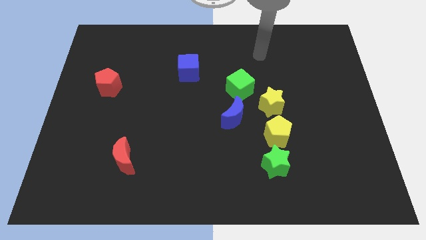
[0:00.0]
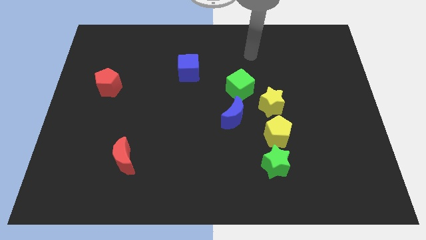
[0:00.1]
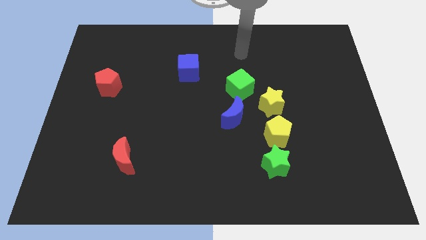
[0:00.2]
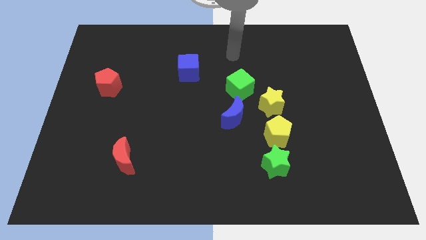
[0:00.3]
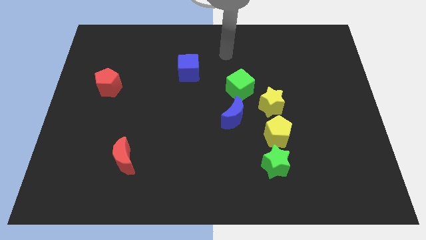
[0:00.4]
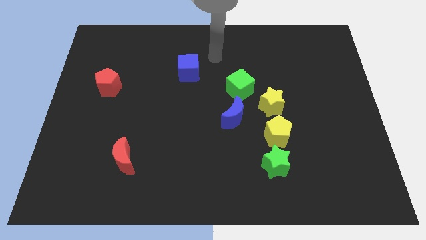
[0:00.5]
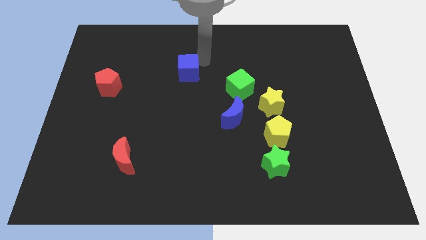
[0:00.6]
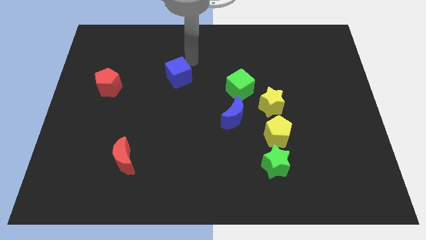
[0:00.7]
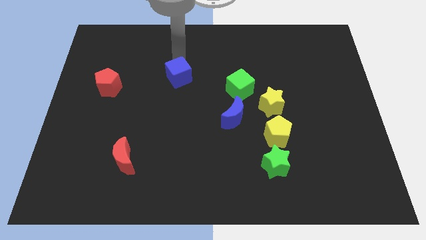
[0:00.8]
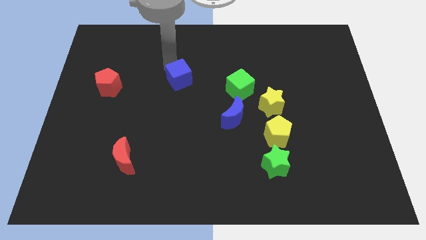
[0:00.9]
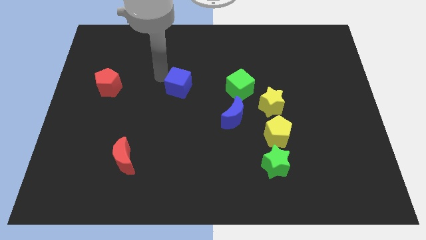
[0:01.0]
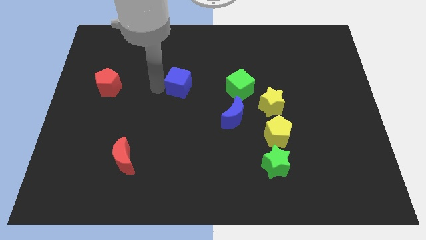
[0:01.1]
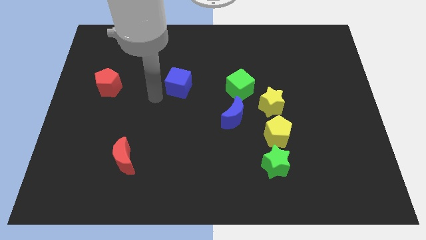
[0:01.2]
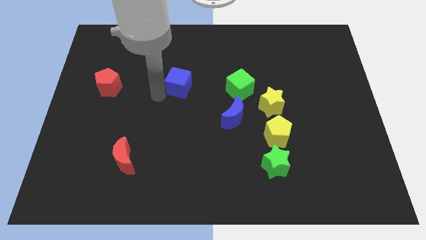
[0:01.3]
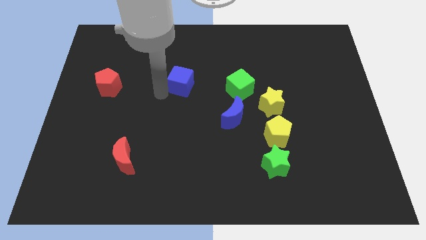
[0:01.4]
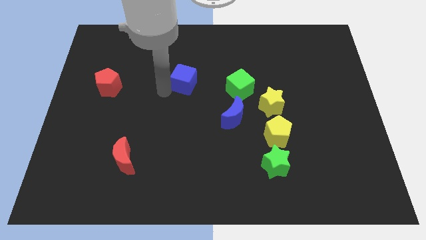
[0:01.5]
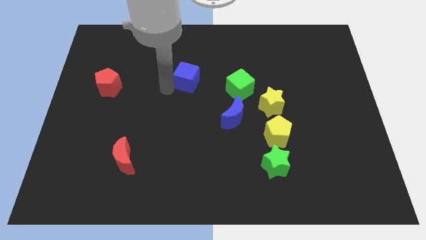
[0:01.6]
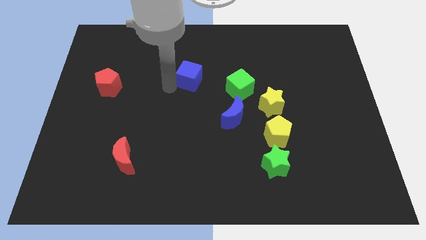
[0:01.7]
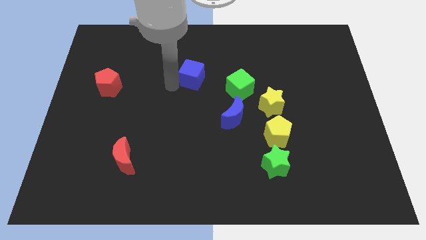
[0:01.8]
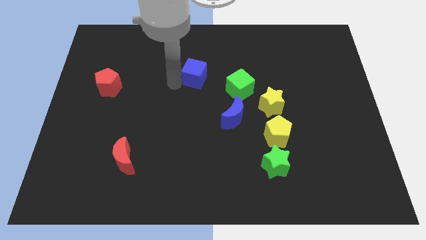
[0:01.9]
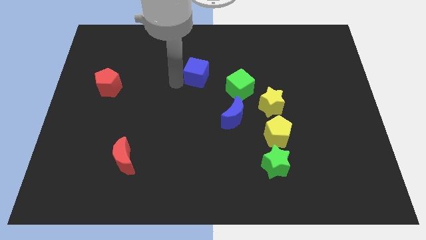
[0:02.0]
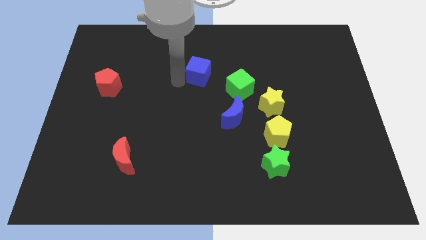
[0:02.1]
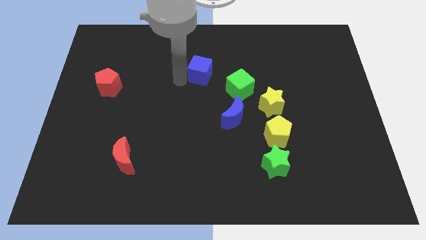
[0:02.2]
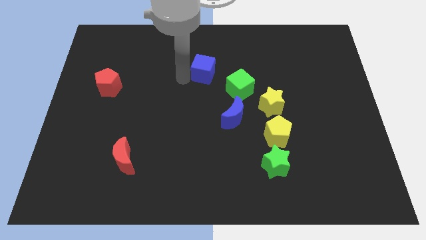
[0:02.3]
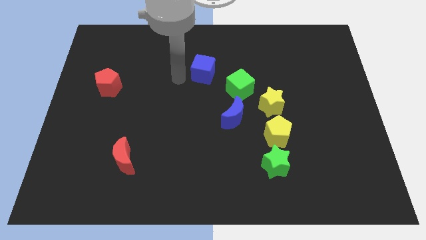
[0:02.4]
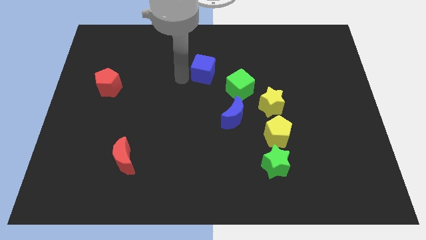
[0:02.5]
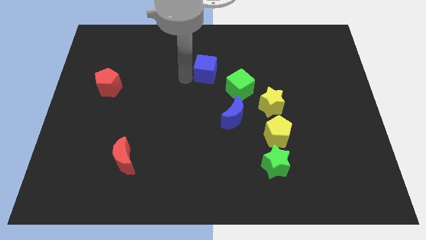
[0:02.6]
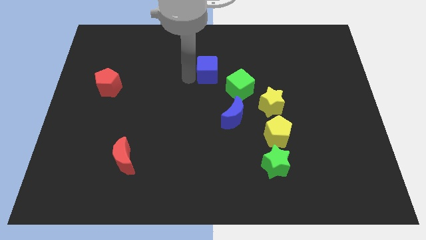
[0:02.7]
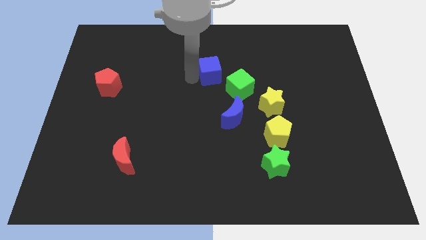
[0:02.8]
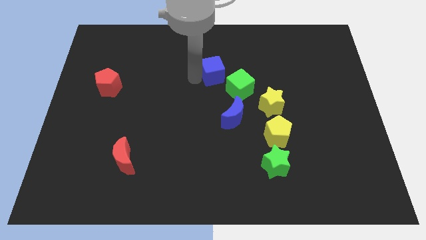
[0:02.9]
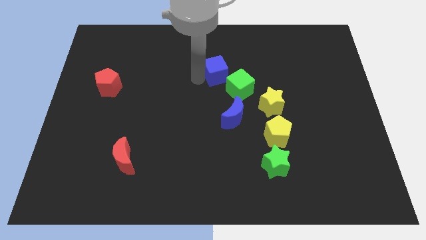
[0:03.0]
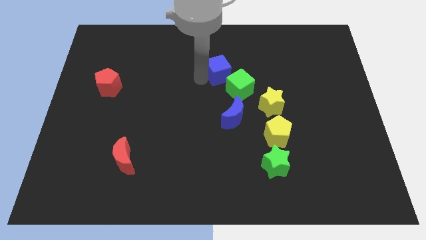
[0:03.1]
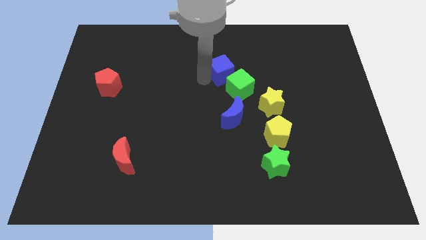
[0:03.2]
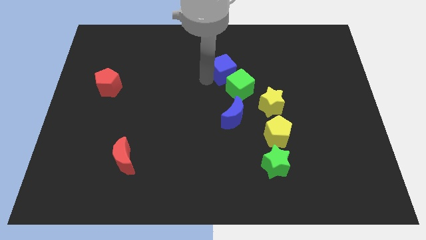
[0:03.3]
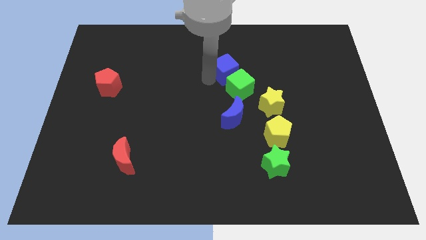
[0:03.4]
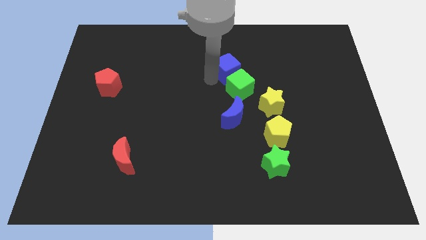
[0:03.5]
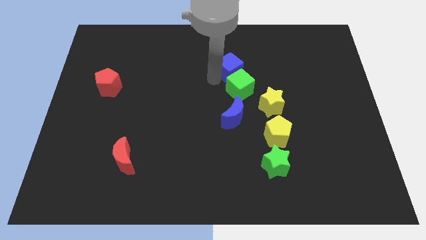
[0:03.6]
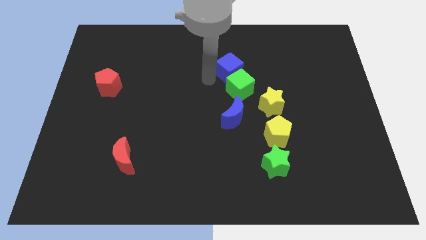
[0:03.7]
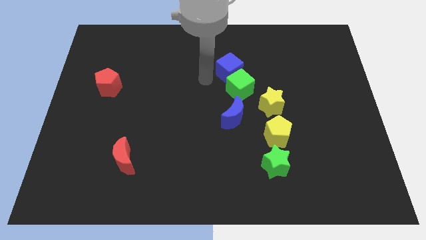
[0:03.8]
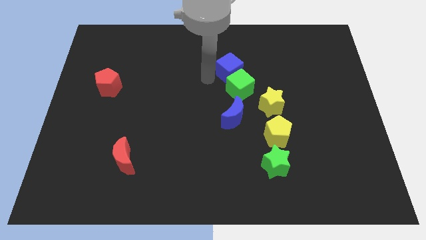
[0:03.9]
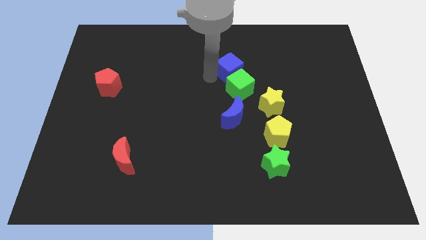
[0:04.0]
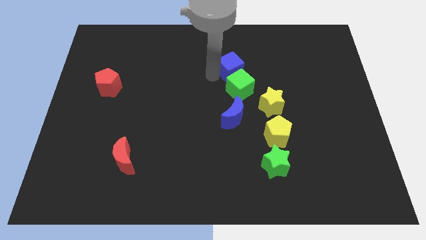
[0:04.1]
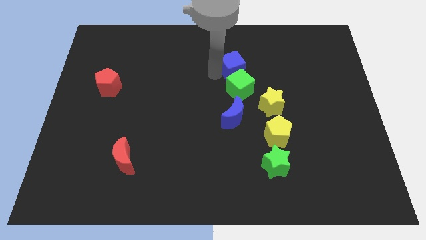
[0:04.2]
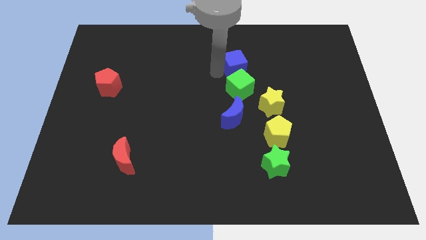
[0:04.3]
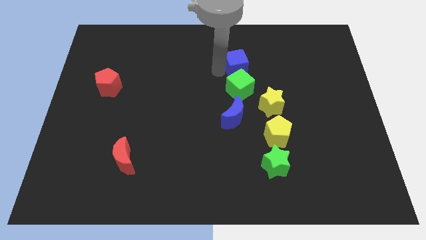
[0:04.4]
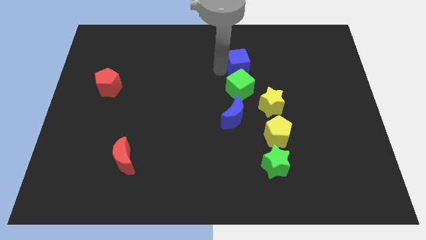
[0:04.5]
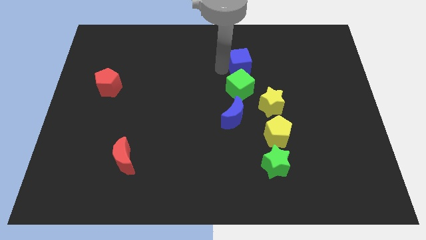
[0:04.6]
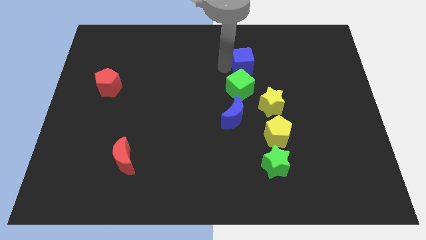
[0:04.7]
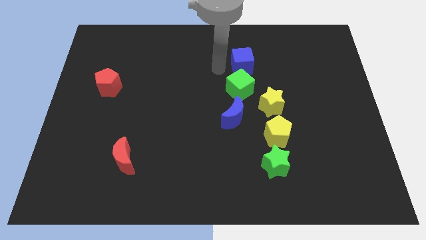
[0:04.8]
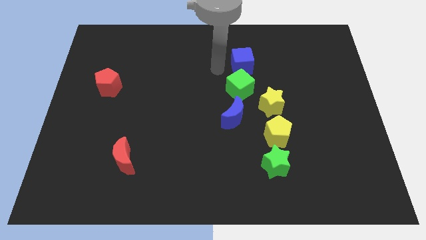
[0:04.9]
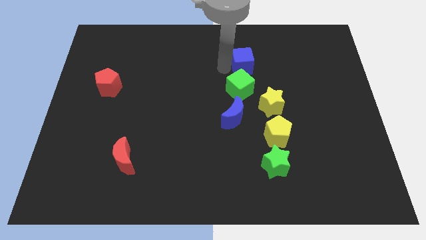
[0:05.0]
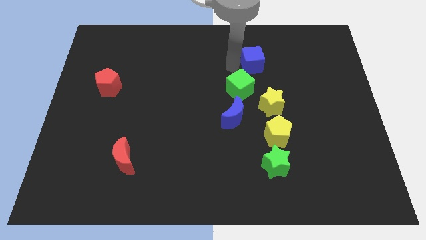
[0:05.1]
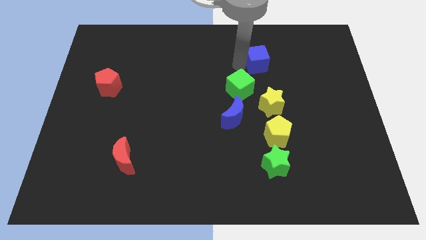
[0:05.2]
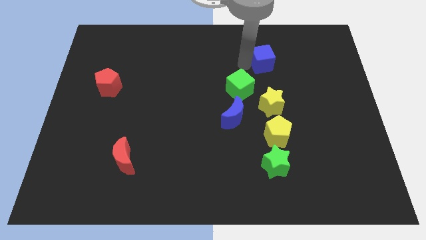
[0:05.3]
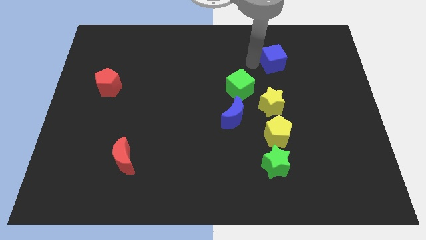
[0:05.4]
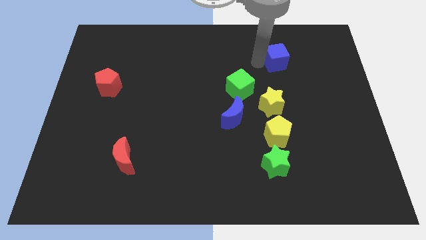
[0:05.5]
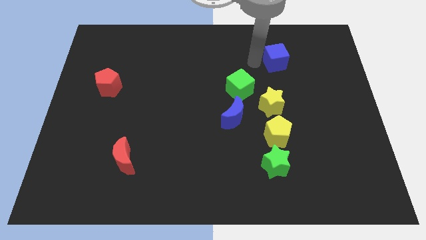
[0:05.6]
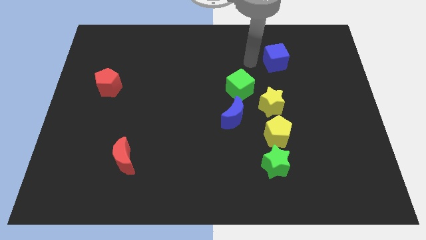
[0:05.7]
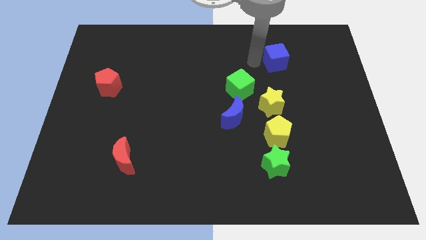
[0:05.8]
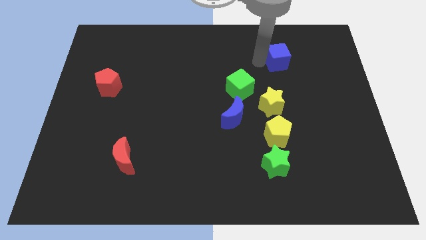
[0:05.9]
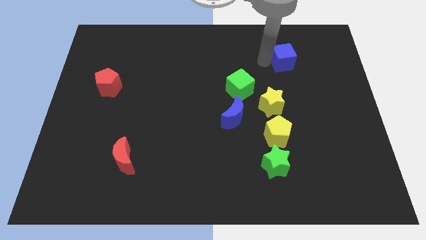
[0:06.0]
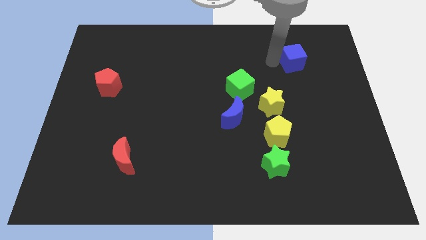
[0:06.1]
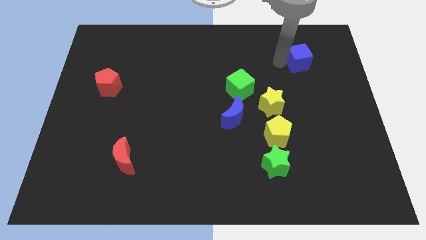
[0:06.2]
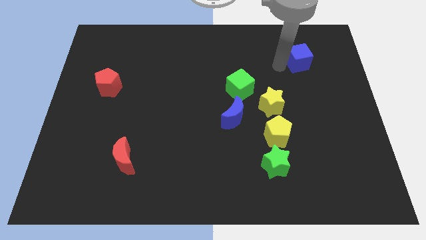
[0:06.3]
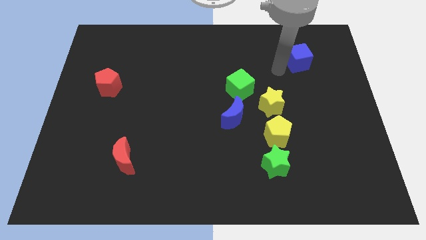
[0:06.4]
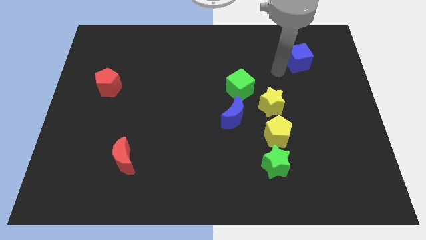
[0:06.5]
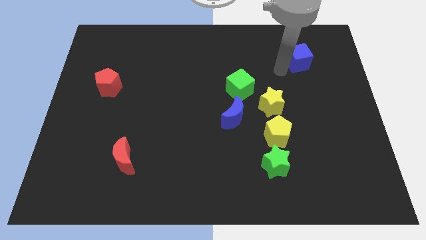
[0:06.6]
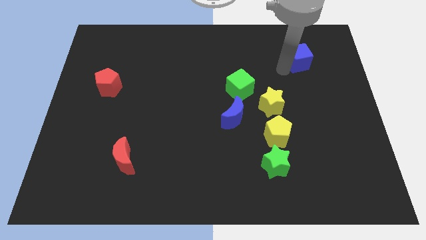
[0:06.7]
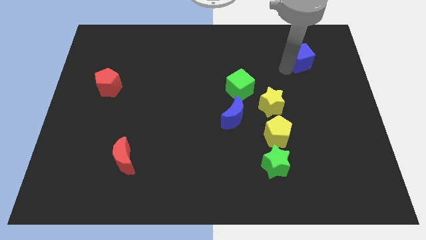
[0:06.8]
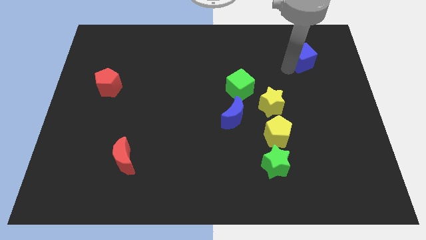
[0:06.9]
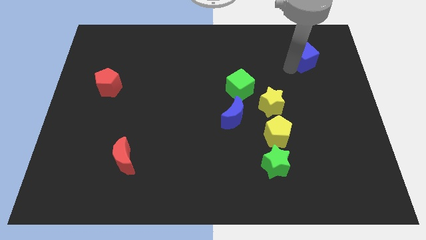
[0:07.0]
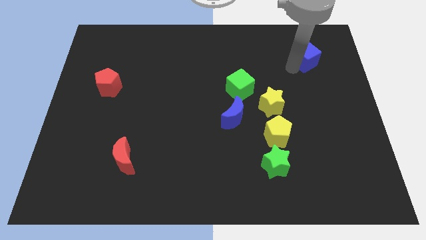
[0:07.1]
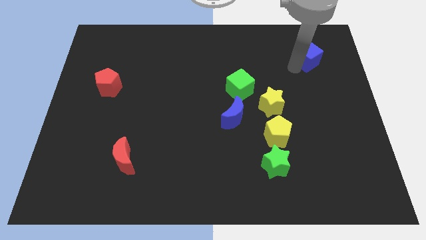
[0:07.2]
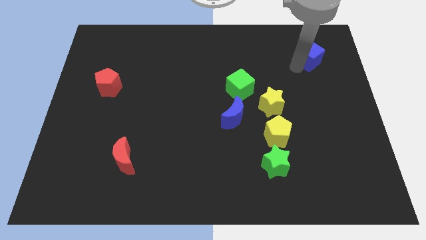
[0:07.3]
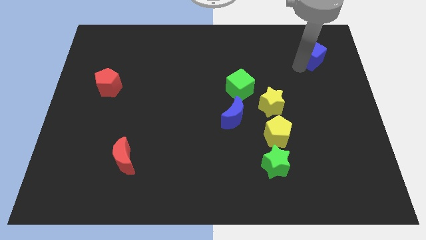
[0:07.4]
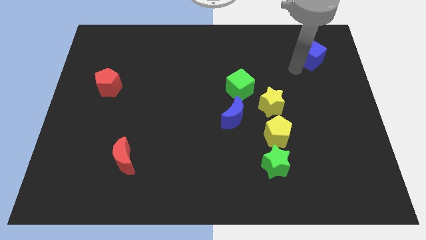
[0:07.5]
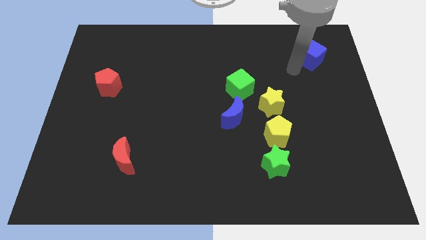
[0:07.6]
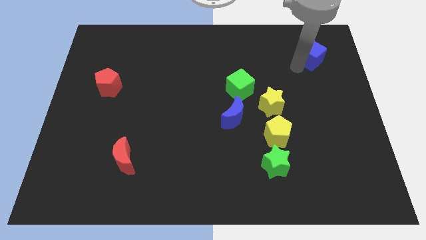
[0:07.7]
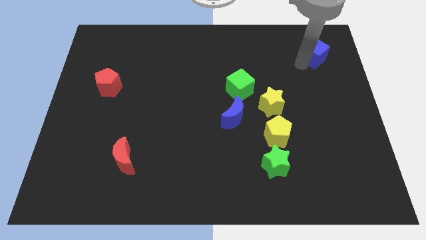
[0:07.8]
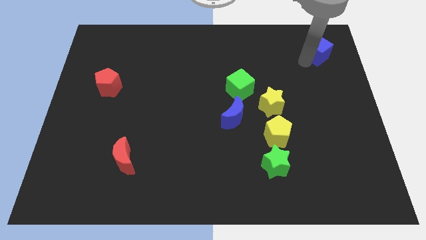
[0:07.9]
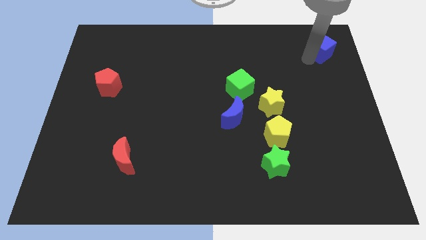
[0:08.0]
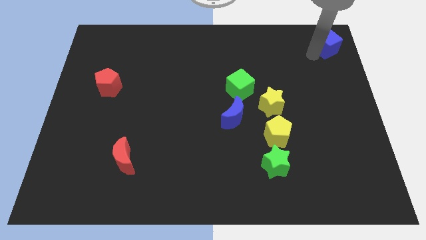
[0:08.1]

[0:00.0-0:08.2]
put the blue cube to the top right of the board
